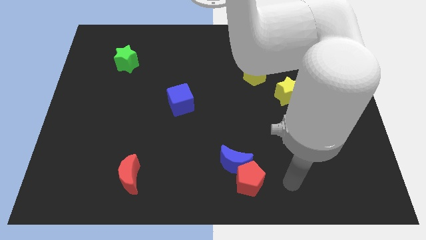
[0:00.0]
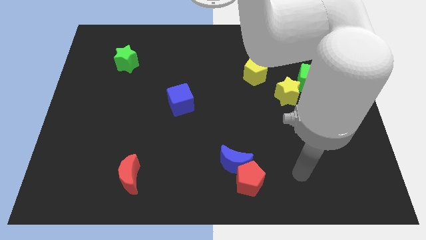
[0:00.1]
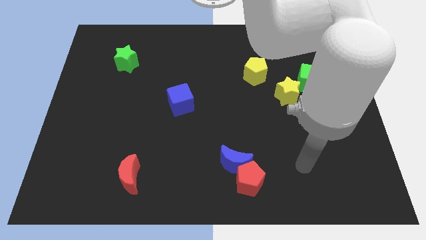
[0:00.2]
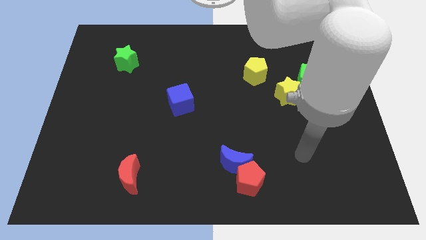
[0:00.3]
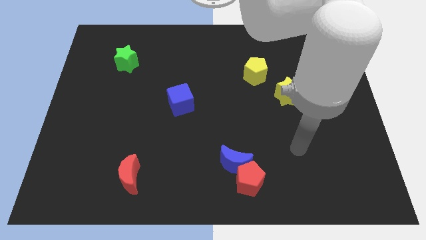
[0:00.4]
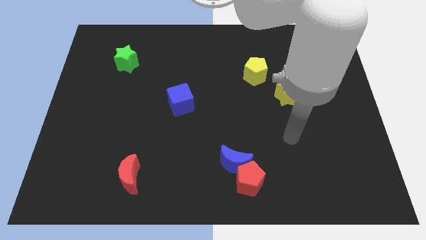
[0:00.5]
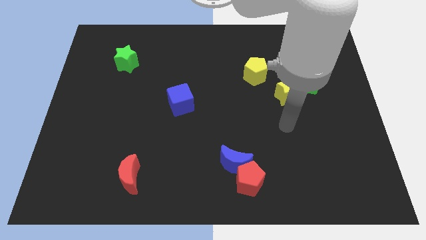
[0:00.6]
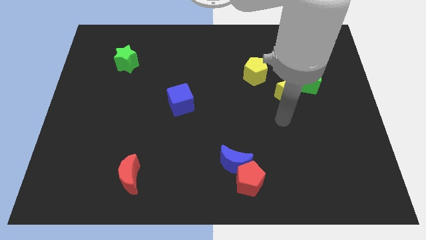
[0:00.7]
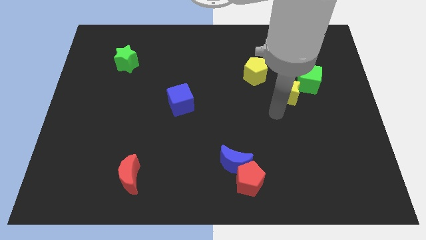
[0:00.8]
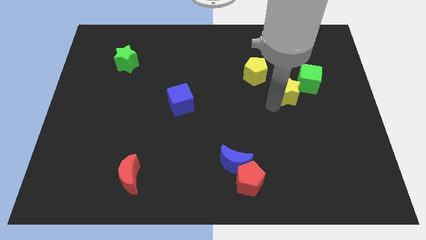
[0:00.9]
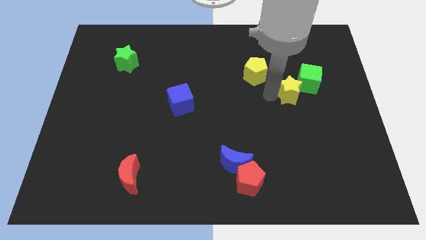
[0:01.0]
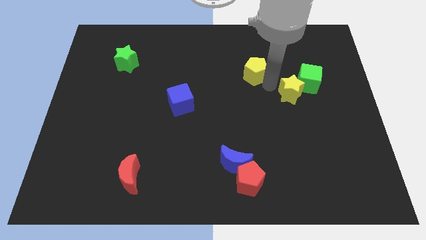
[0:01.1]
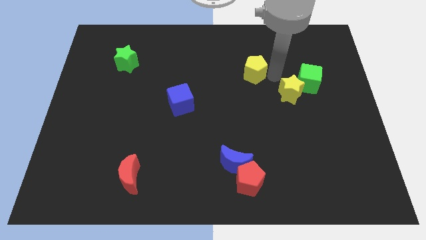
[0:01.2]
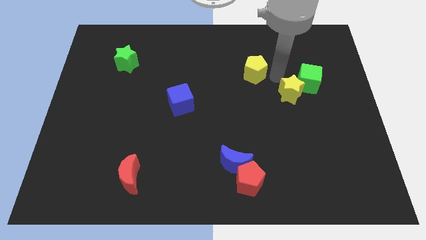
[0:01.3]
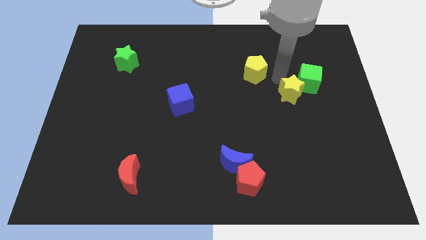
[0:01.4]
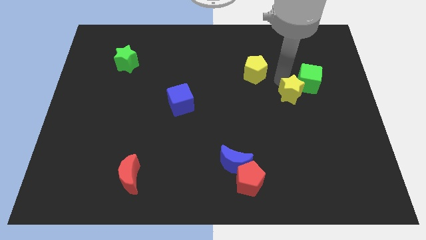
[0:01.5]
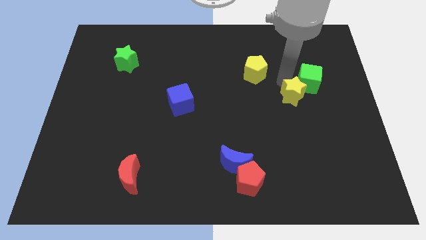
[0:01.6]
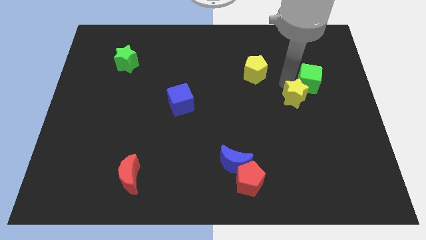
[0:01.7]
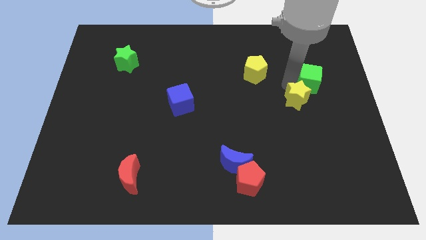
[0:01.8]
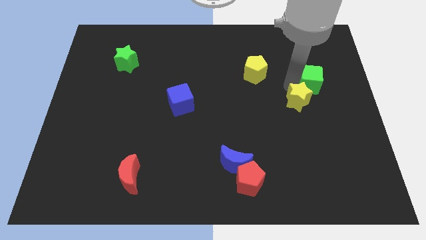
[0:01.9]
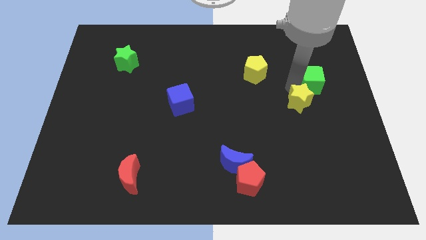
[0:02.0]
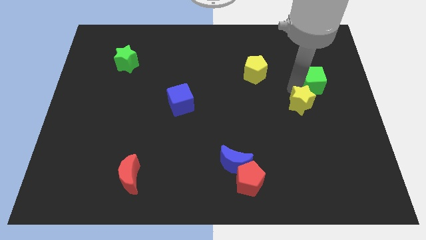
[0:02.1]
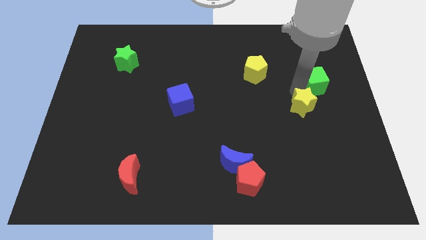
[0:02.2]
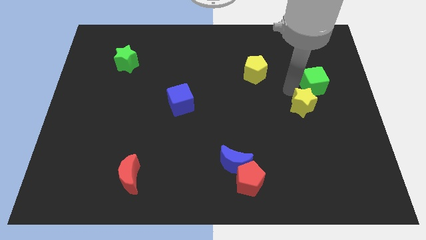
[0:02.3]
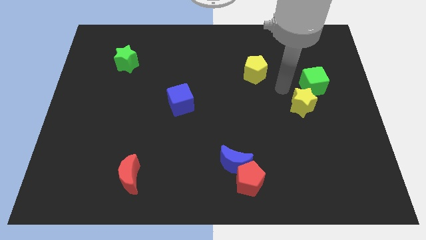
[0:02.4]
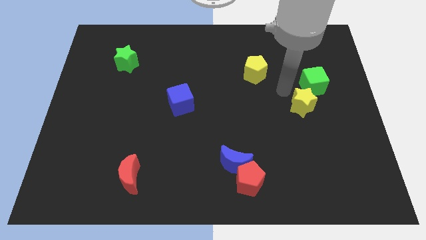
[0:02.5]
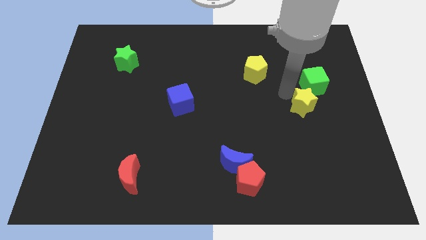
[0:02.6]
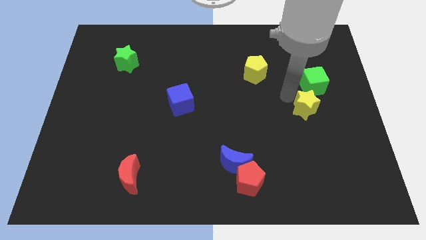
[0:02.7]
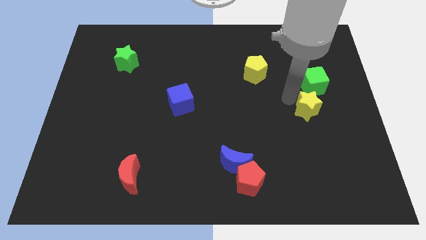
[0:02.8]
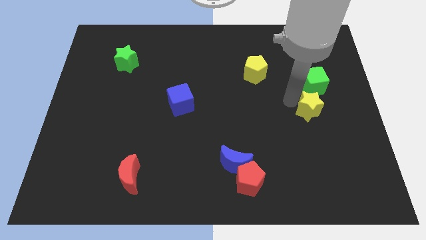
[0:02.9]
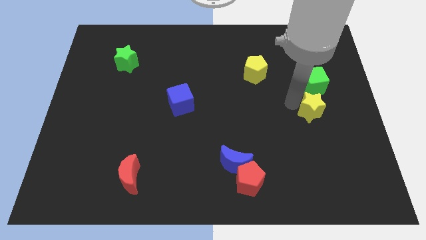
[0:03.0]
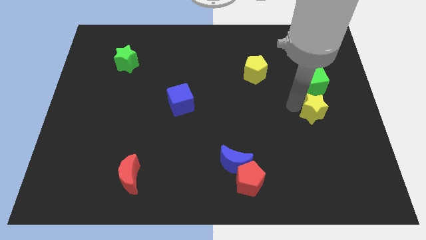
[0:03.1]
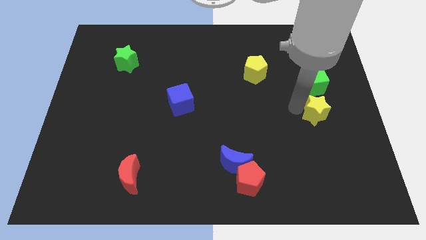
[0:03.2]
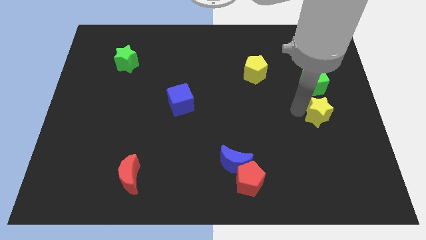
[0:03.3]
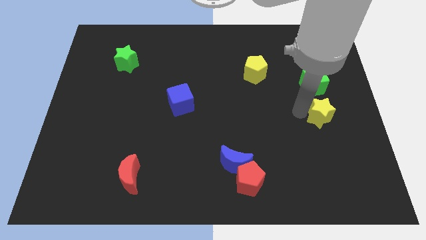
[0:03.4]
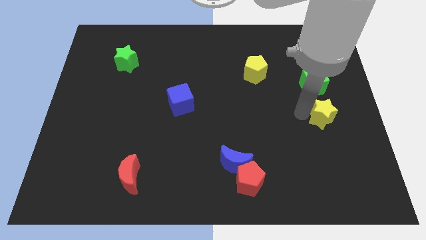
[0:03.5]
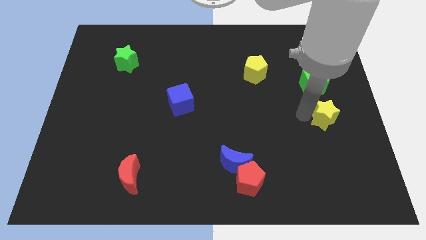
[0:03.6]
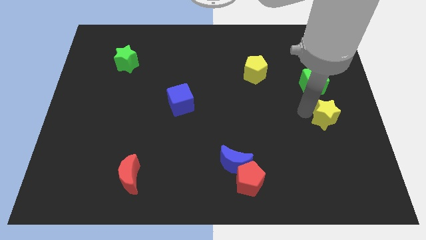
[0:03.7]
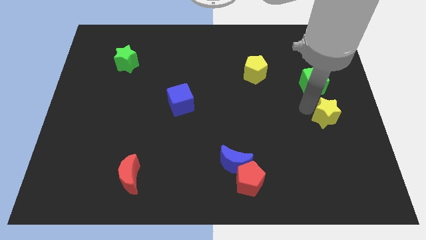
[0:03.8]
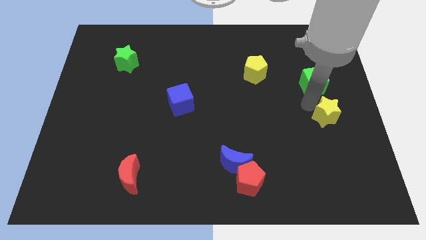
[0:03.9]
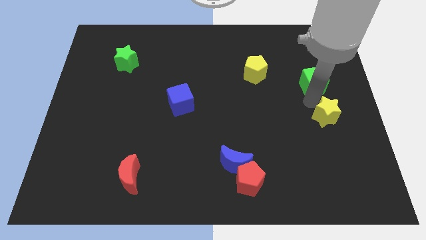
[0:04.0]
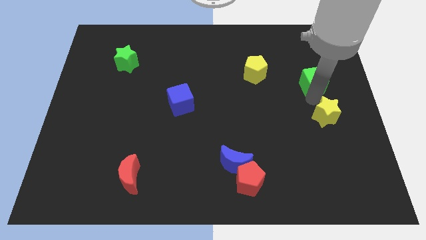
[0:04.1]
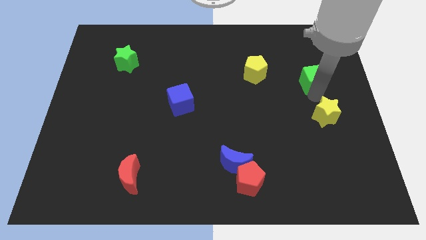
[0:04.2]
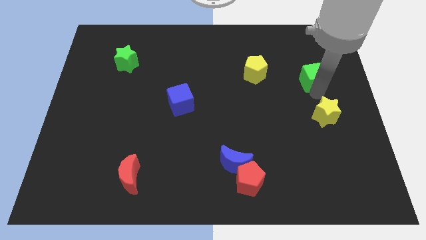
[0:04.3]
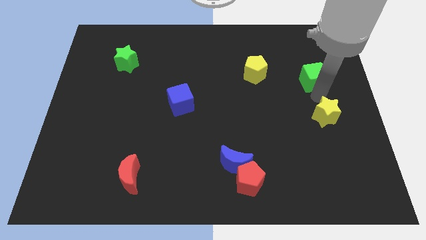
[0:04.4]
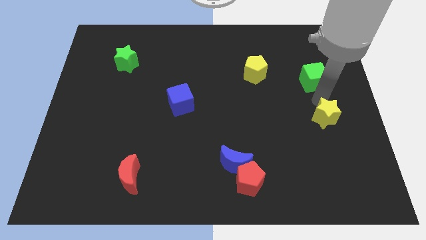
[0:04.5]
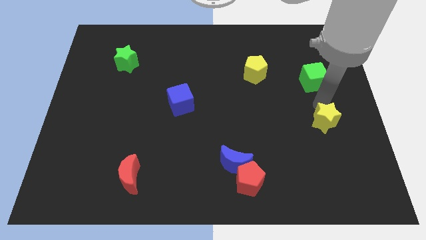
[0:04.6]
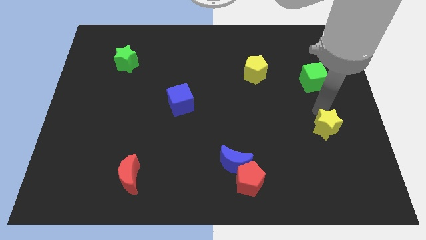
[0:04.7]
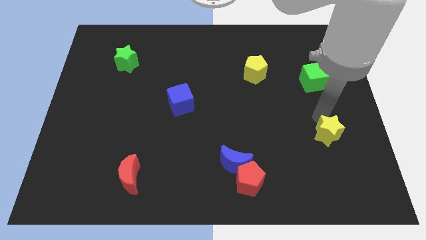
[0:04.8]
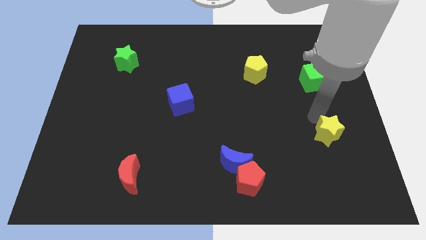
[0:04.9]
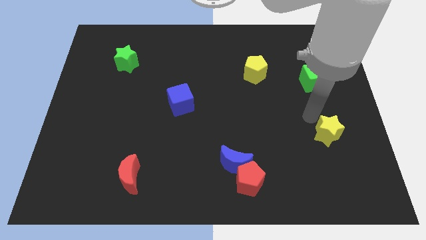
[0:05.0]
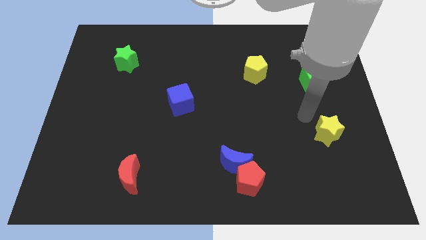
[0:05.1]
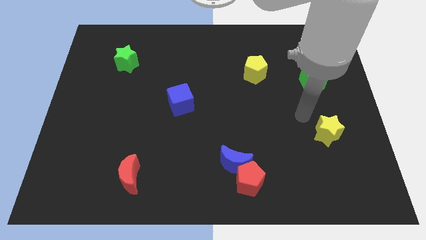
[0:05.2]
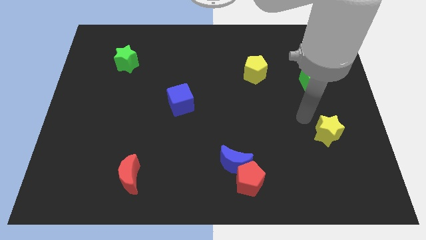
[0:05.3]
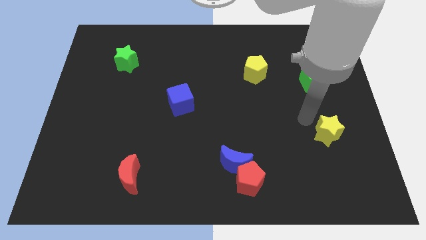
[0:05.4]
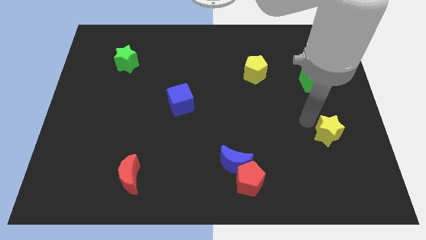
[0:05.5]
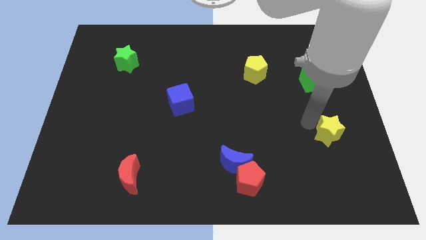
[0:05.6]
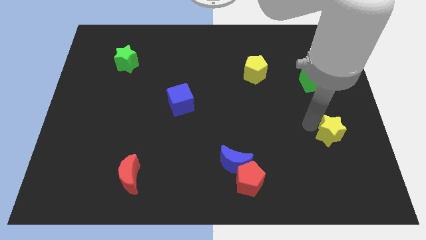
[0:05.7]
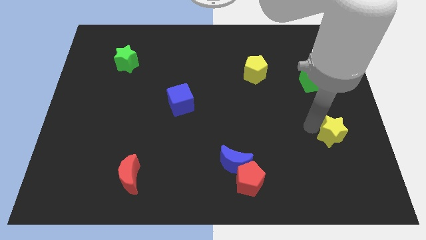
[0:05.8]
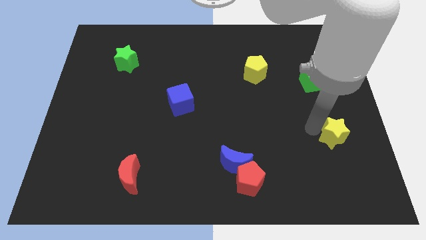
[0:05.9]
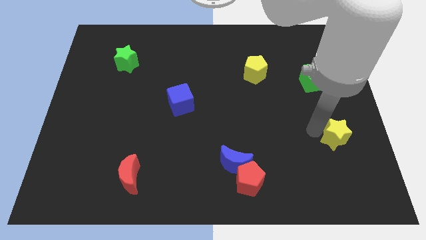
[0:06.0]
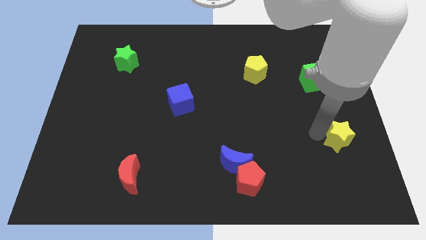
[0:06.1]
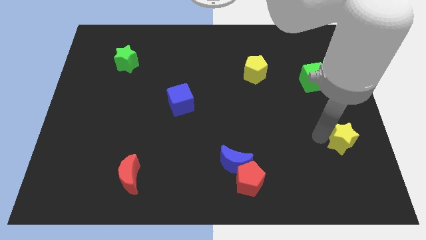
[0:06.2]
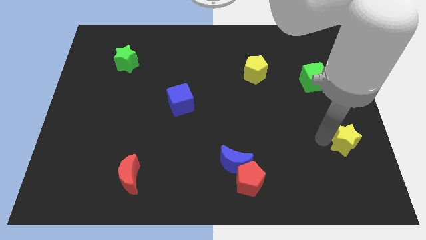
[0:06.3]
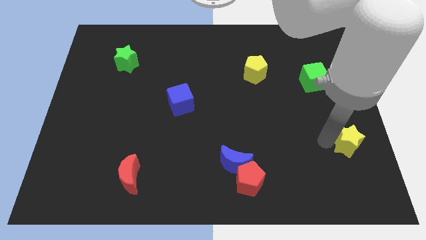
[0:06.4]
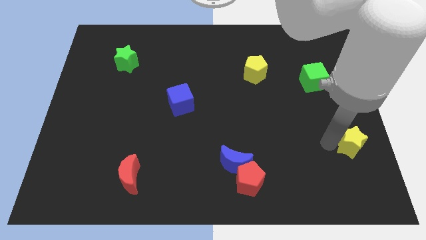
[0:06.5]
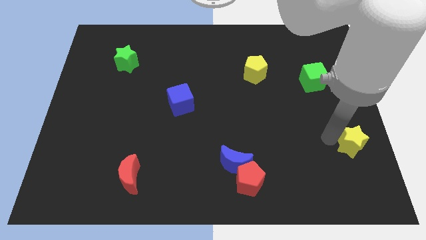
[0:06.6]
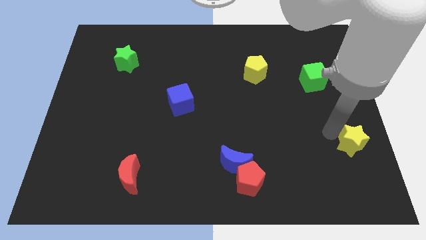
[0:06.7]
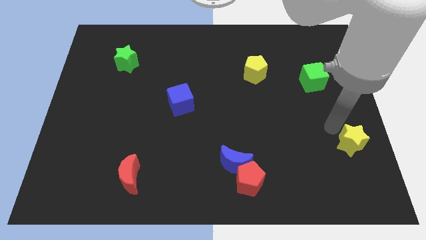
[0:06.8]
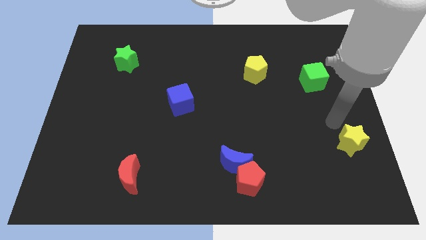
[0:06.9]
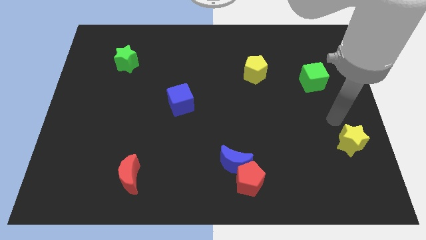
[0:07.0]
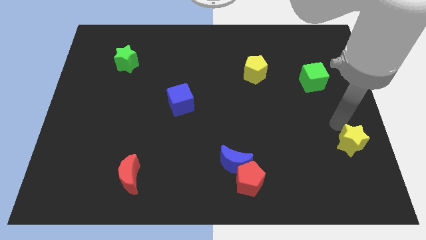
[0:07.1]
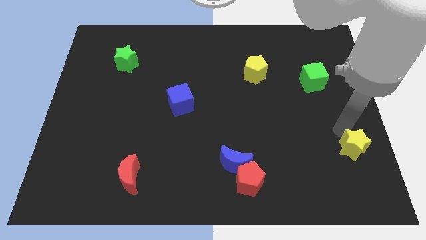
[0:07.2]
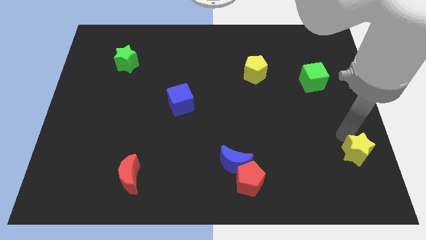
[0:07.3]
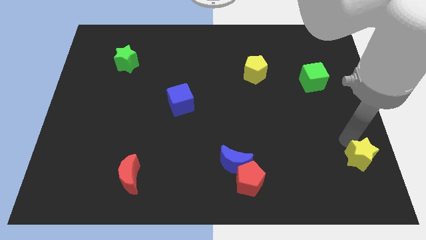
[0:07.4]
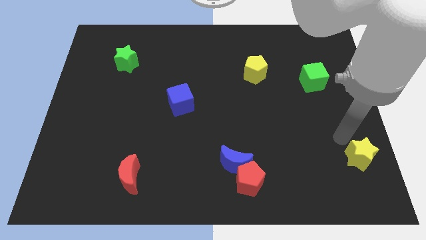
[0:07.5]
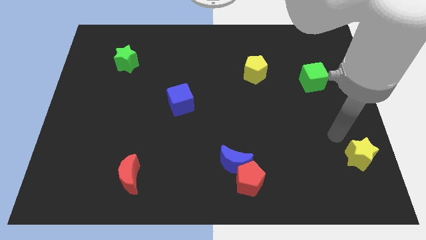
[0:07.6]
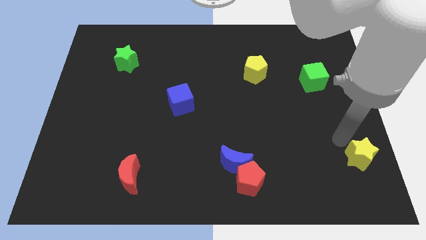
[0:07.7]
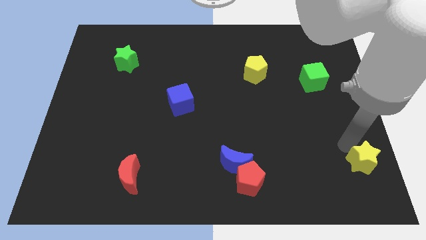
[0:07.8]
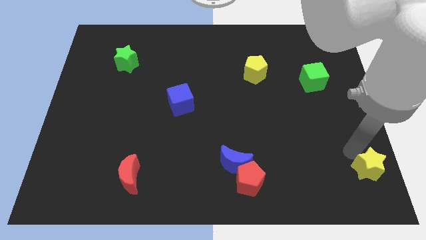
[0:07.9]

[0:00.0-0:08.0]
slide the yellow star to the bottom right of the board
